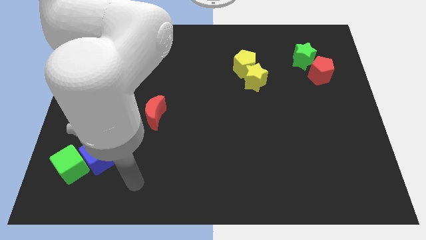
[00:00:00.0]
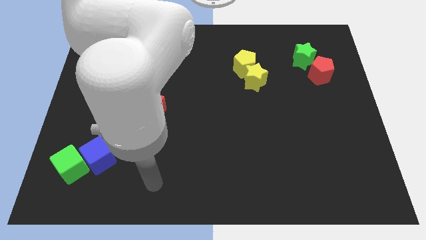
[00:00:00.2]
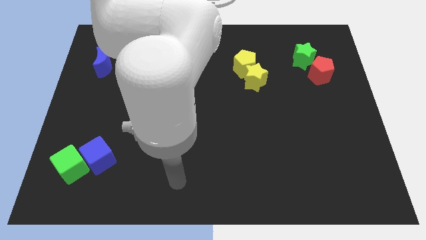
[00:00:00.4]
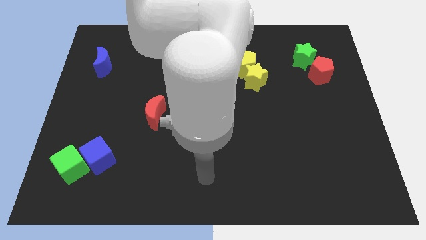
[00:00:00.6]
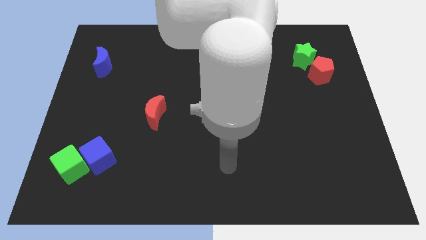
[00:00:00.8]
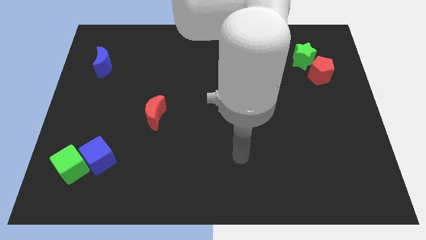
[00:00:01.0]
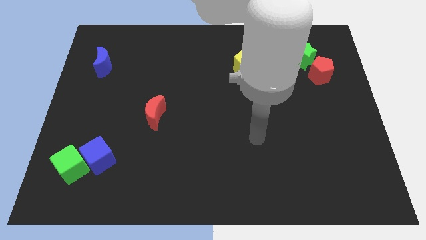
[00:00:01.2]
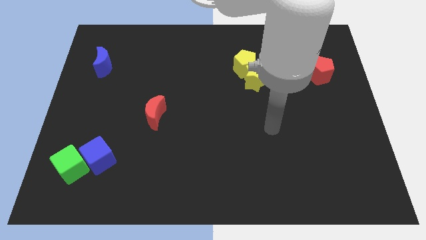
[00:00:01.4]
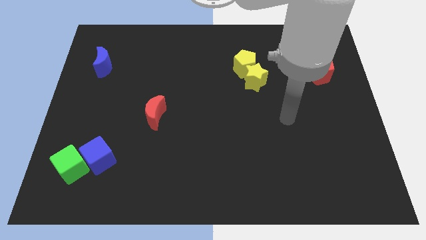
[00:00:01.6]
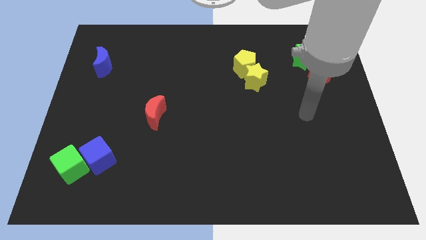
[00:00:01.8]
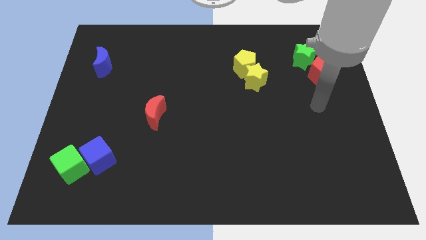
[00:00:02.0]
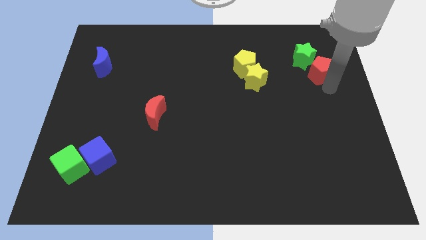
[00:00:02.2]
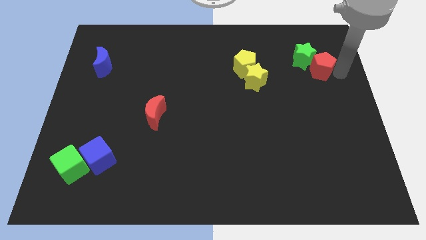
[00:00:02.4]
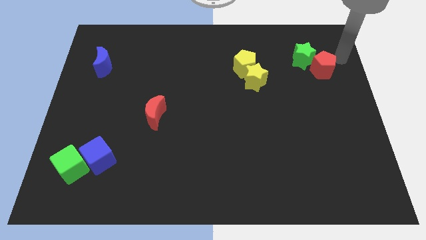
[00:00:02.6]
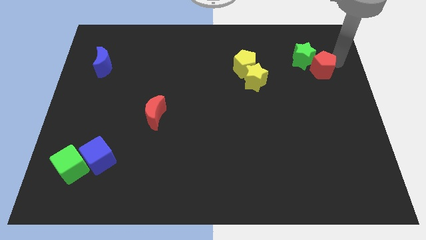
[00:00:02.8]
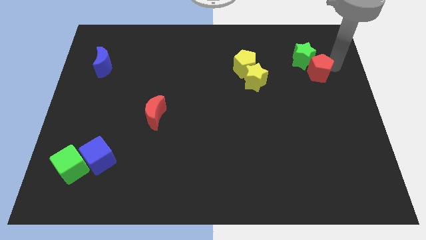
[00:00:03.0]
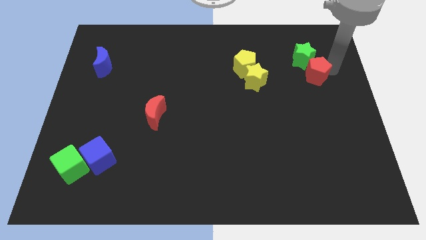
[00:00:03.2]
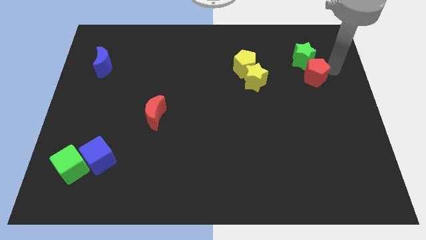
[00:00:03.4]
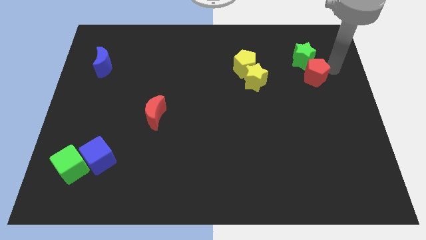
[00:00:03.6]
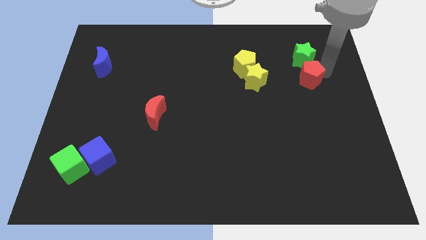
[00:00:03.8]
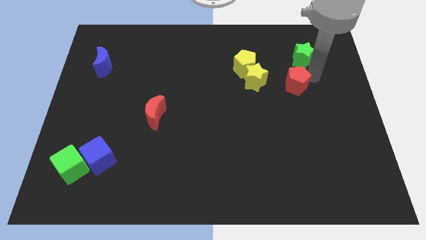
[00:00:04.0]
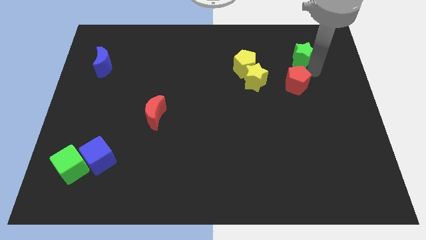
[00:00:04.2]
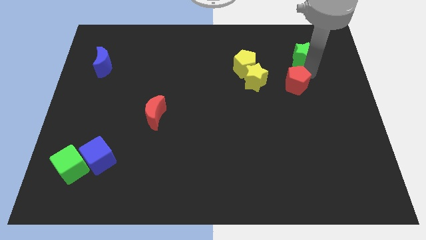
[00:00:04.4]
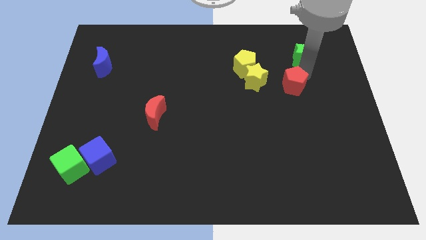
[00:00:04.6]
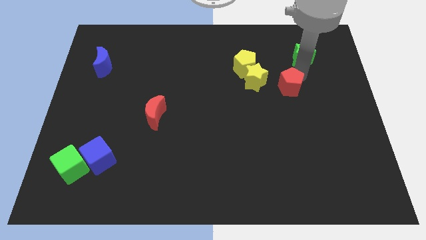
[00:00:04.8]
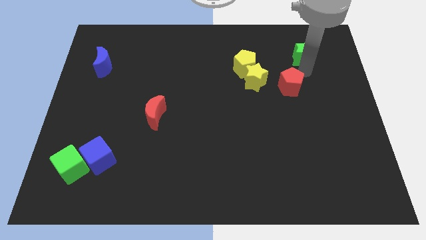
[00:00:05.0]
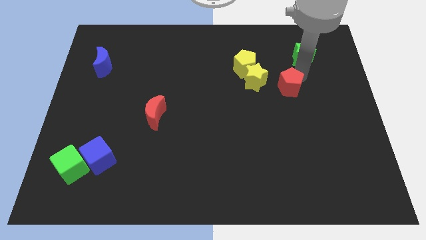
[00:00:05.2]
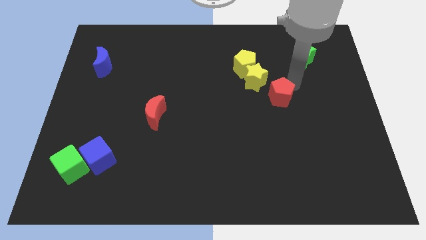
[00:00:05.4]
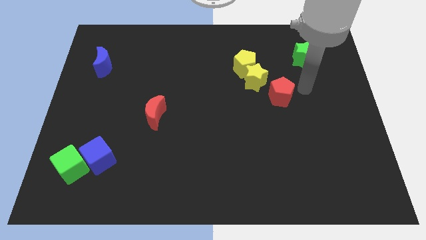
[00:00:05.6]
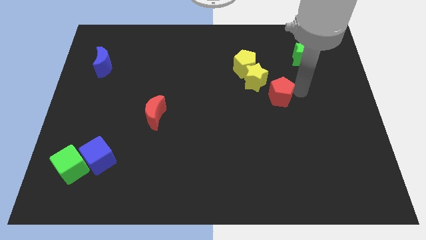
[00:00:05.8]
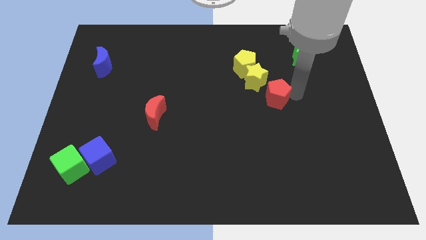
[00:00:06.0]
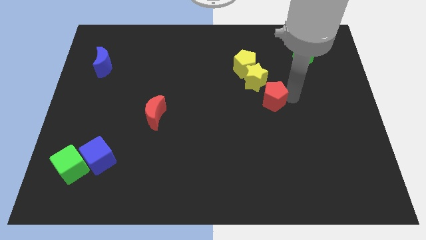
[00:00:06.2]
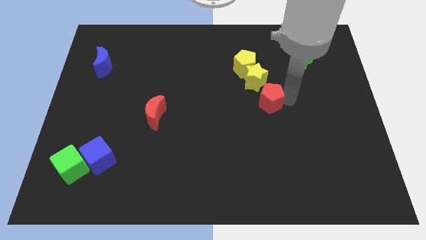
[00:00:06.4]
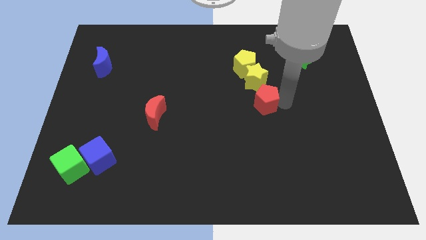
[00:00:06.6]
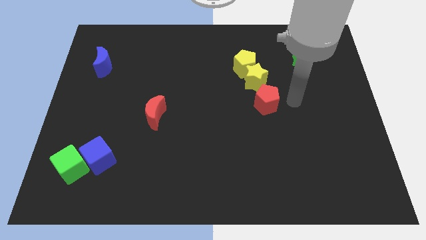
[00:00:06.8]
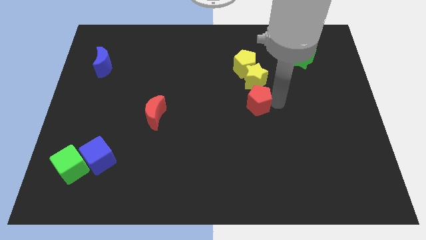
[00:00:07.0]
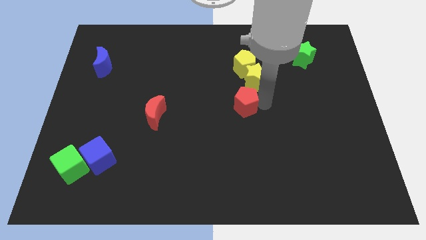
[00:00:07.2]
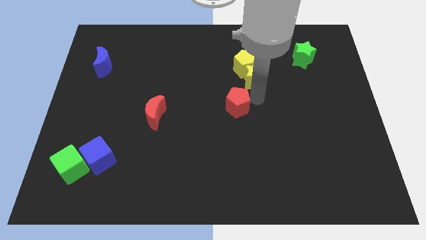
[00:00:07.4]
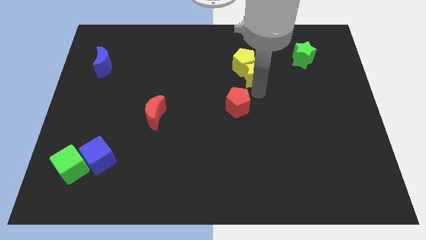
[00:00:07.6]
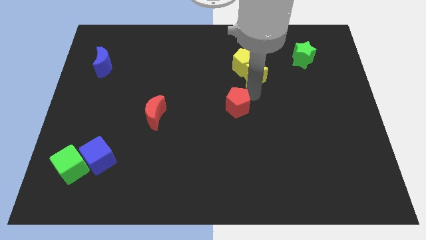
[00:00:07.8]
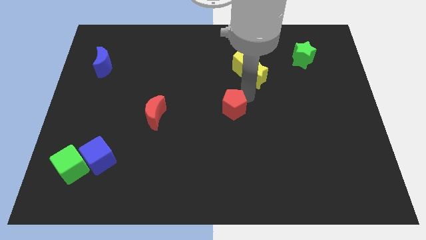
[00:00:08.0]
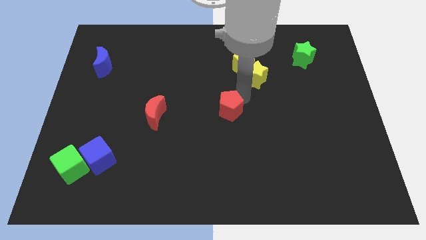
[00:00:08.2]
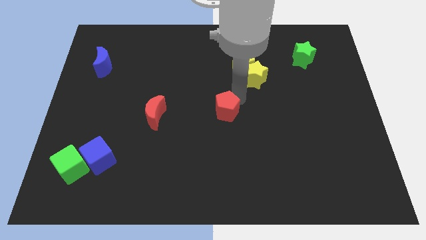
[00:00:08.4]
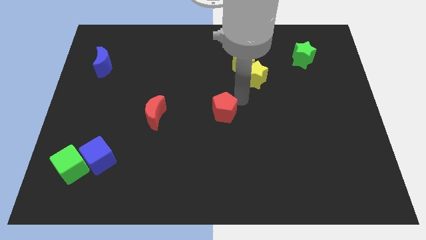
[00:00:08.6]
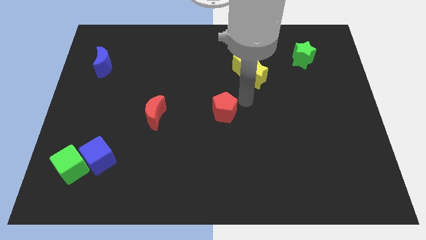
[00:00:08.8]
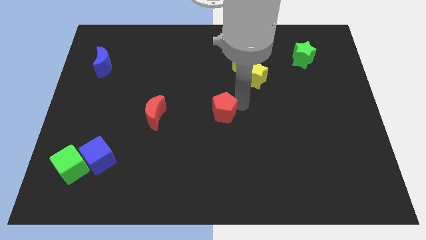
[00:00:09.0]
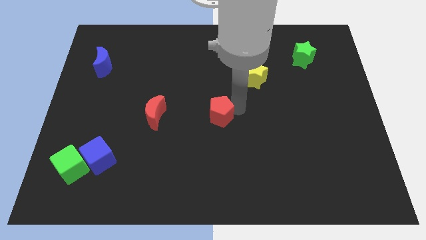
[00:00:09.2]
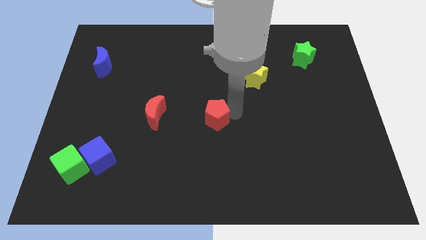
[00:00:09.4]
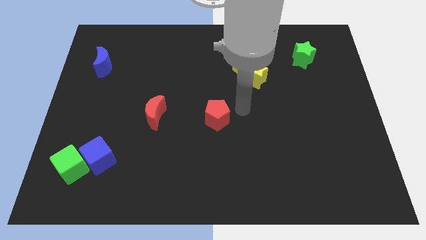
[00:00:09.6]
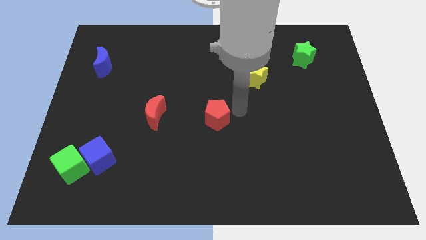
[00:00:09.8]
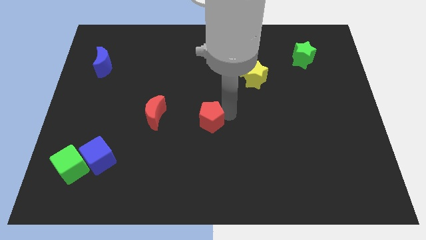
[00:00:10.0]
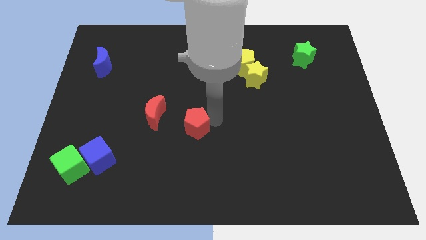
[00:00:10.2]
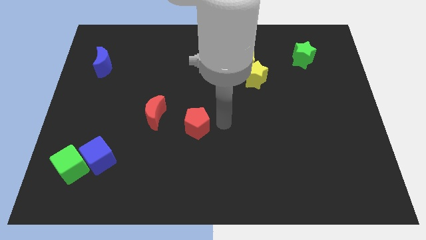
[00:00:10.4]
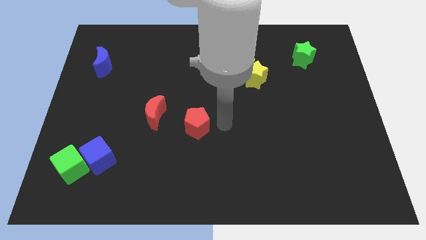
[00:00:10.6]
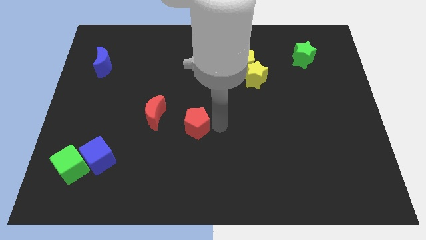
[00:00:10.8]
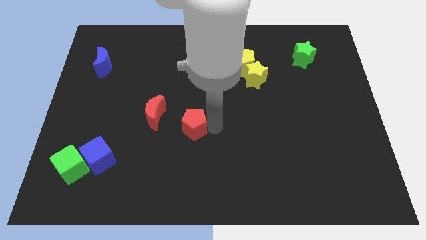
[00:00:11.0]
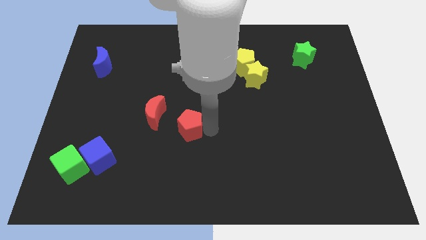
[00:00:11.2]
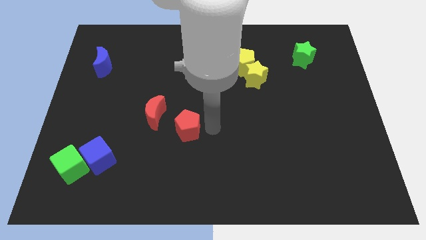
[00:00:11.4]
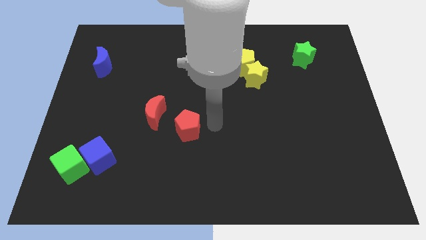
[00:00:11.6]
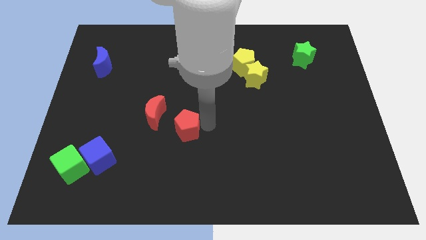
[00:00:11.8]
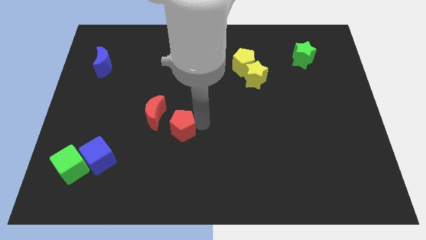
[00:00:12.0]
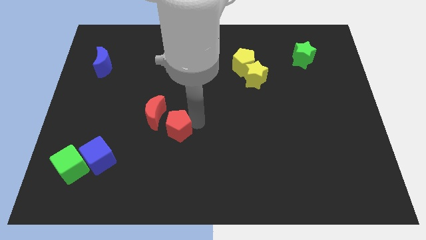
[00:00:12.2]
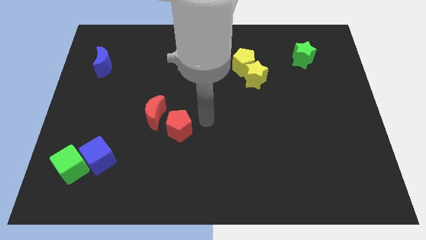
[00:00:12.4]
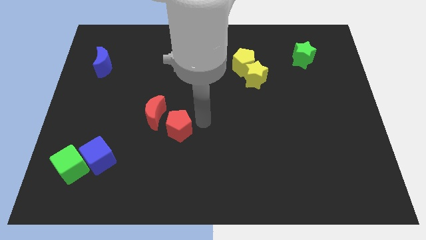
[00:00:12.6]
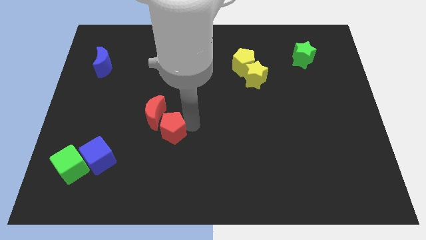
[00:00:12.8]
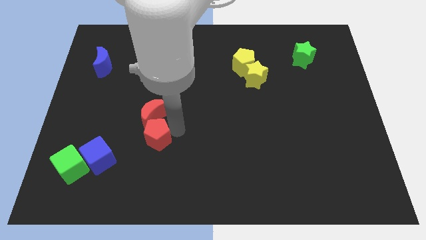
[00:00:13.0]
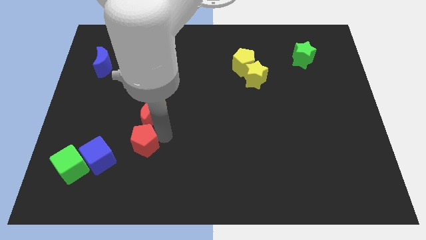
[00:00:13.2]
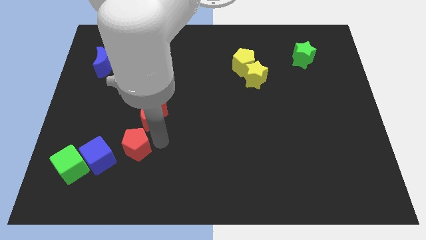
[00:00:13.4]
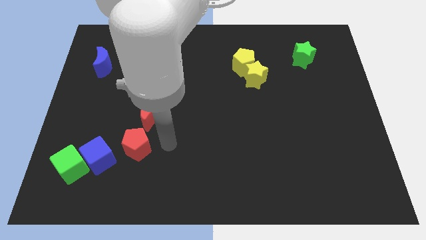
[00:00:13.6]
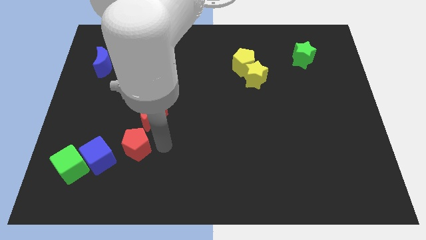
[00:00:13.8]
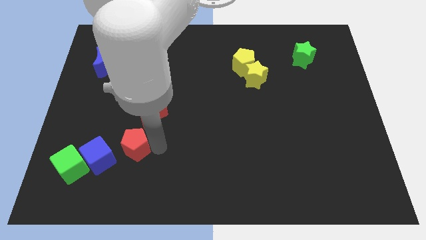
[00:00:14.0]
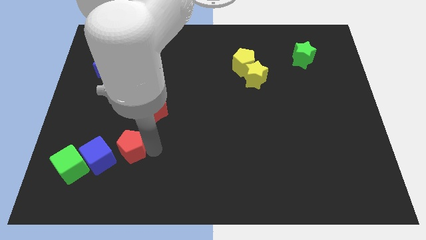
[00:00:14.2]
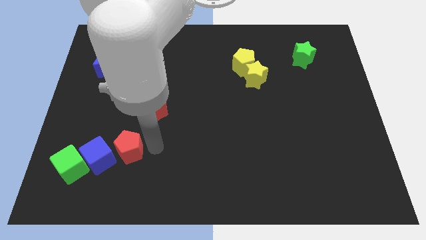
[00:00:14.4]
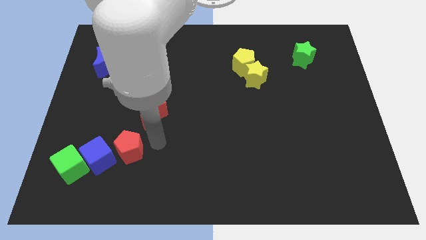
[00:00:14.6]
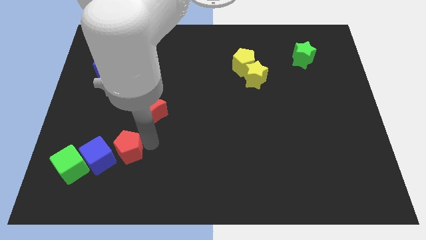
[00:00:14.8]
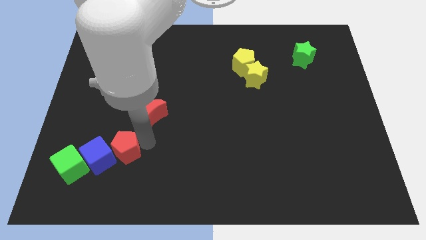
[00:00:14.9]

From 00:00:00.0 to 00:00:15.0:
push the red pentagon next to the blue cube

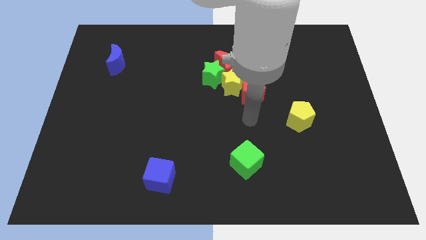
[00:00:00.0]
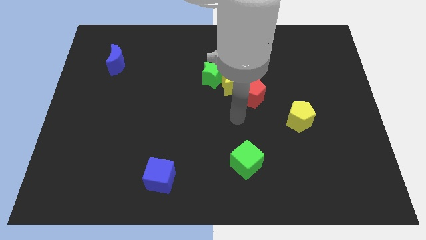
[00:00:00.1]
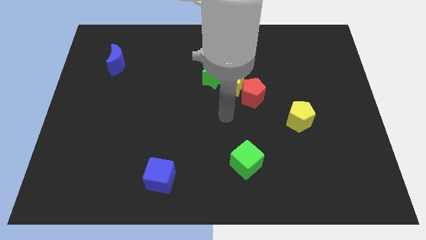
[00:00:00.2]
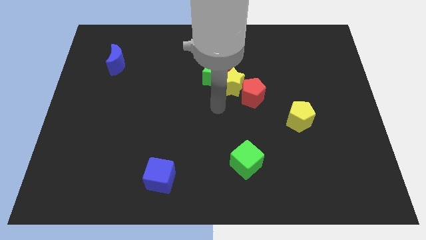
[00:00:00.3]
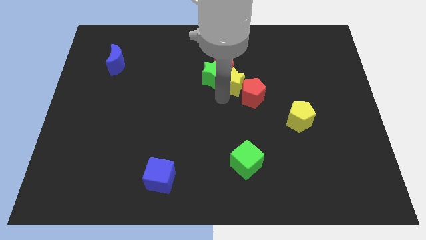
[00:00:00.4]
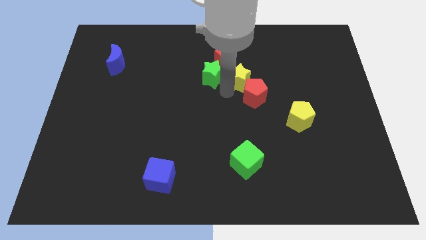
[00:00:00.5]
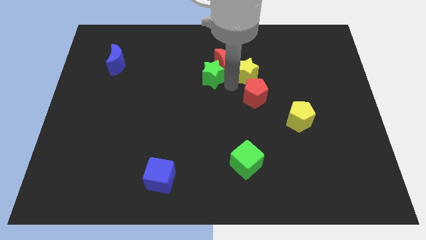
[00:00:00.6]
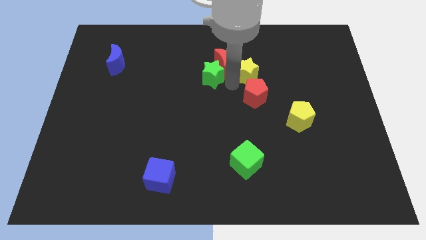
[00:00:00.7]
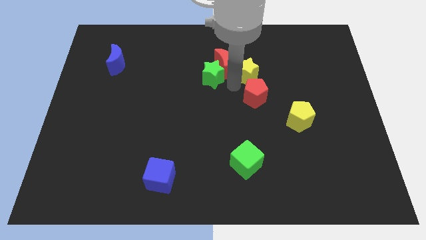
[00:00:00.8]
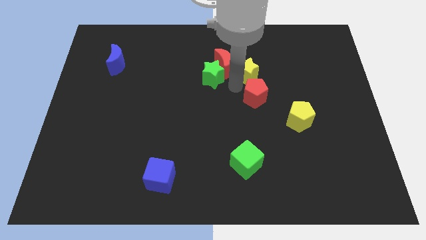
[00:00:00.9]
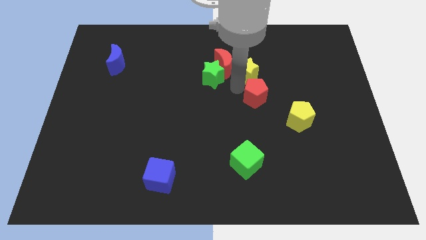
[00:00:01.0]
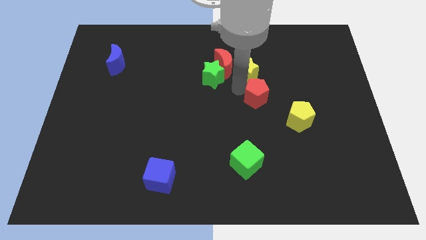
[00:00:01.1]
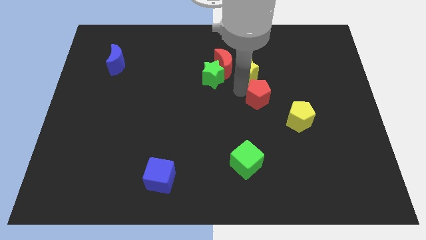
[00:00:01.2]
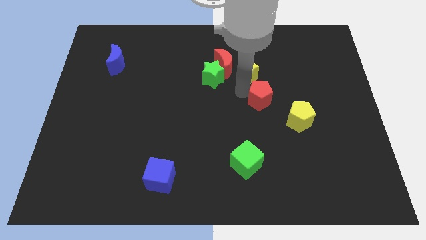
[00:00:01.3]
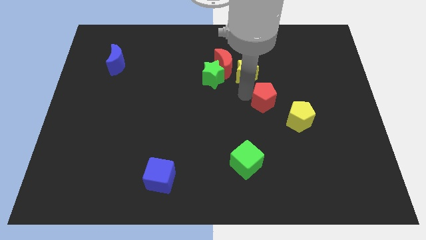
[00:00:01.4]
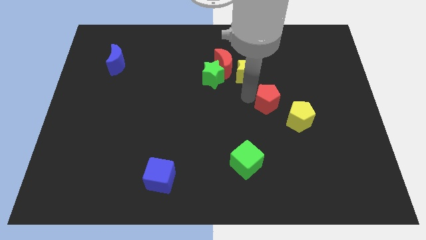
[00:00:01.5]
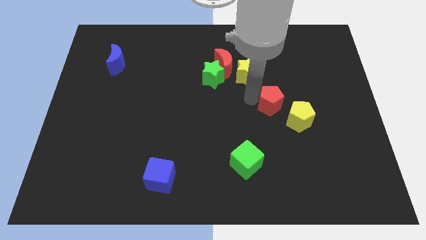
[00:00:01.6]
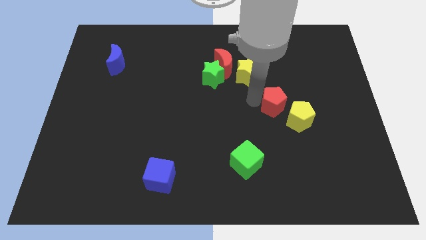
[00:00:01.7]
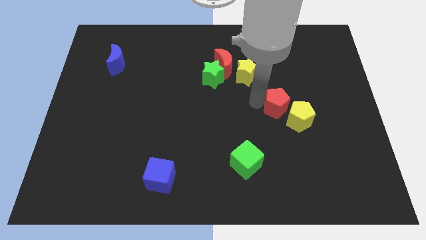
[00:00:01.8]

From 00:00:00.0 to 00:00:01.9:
push the red pentagon to the yellow pentagon
